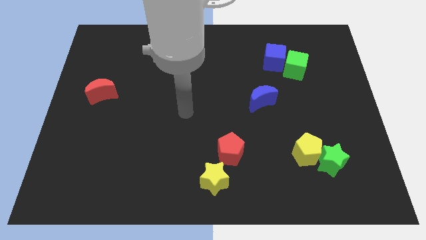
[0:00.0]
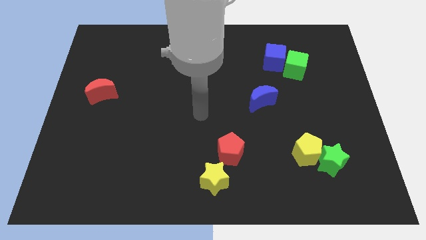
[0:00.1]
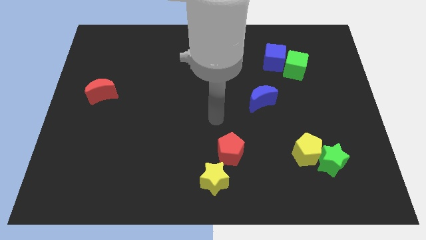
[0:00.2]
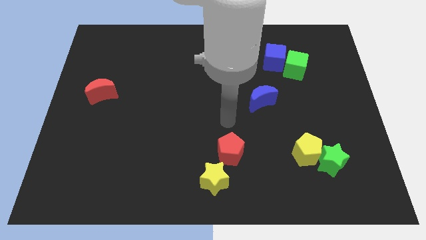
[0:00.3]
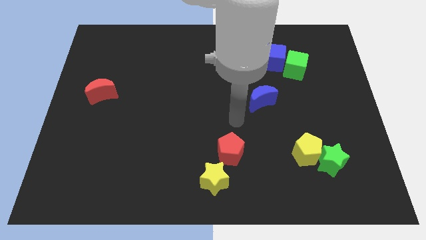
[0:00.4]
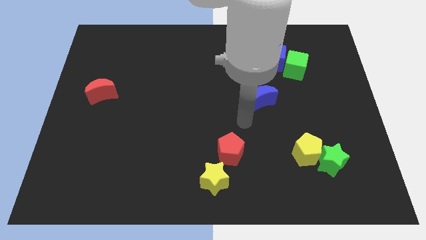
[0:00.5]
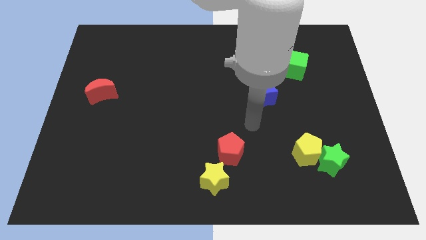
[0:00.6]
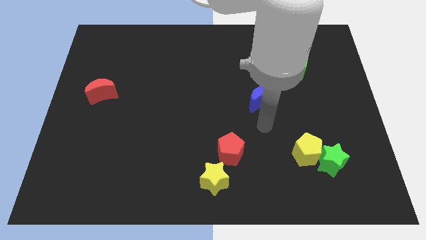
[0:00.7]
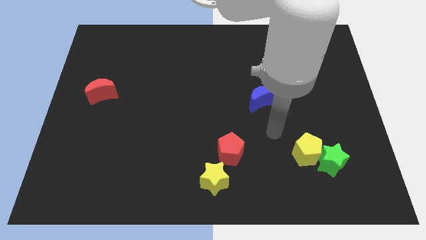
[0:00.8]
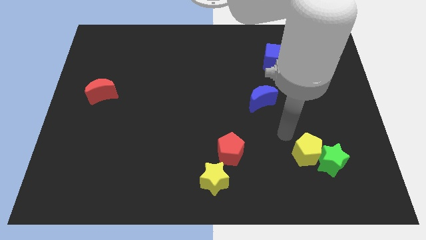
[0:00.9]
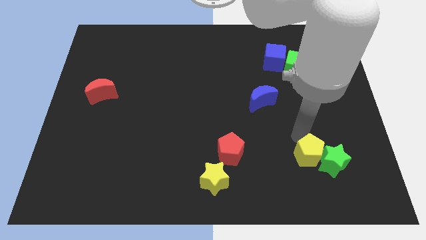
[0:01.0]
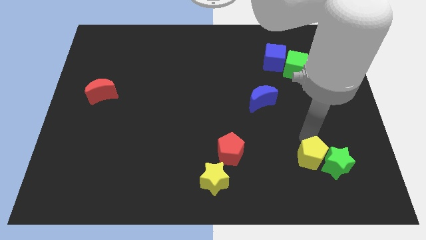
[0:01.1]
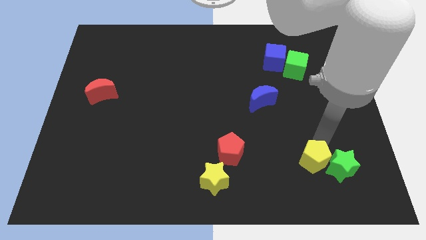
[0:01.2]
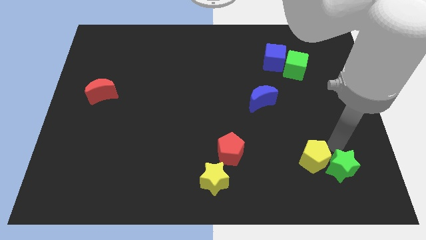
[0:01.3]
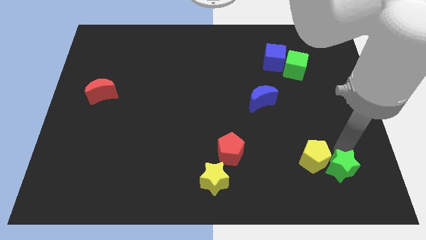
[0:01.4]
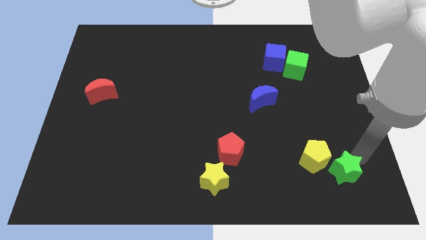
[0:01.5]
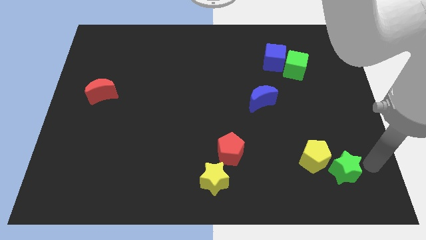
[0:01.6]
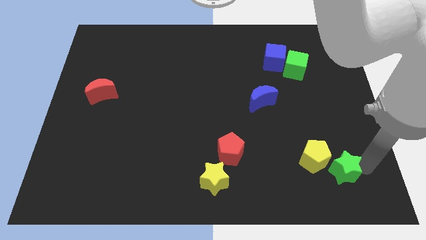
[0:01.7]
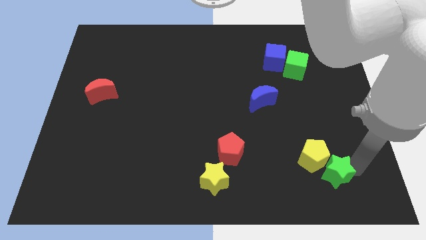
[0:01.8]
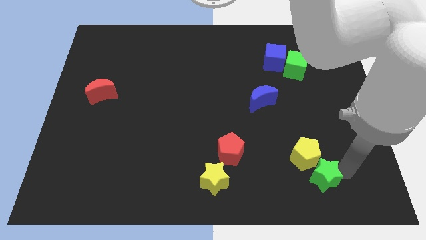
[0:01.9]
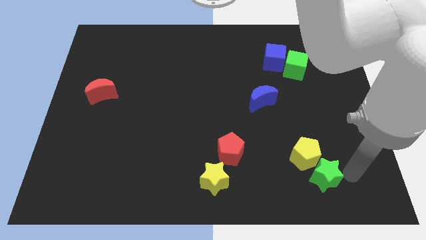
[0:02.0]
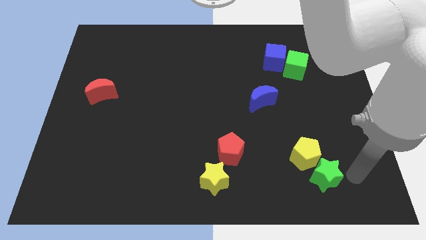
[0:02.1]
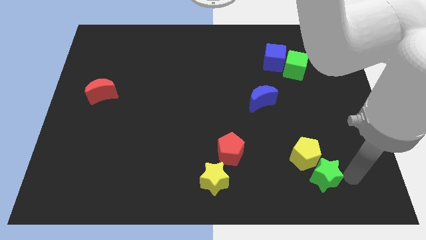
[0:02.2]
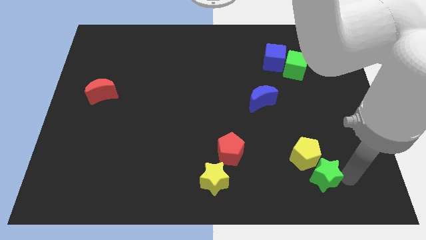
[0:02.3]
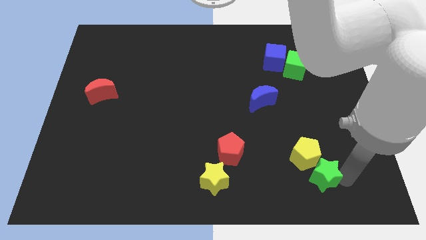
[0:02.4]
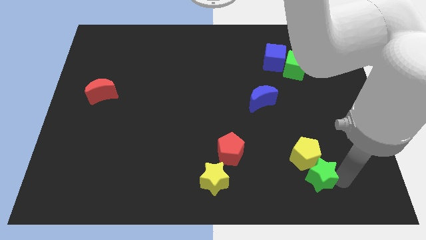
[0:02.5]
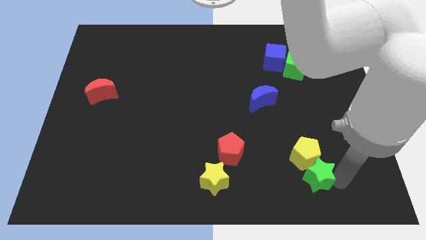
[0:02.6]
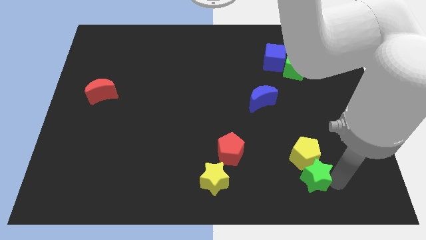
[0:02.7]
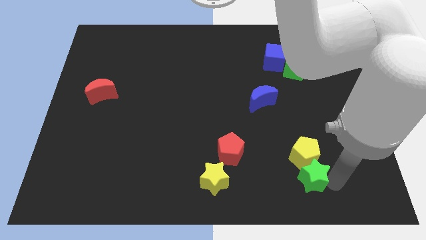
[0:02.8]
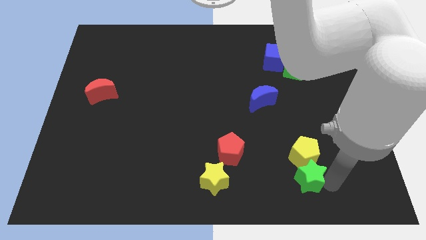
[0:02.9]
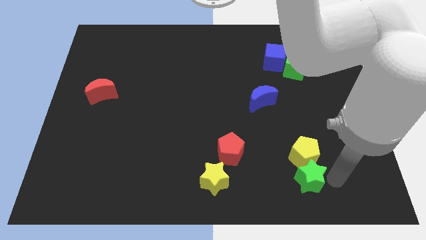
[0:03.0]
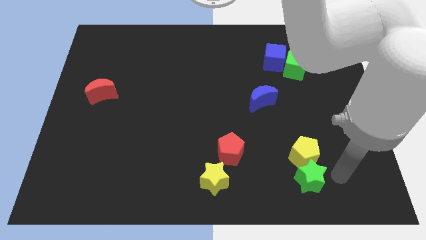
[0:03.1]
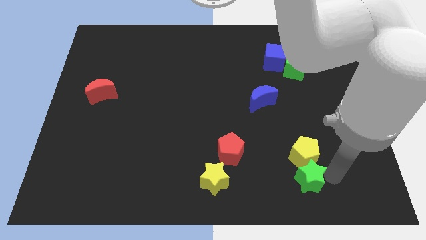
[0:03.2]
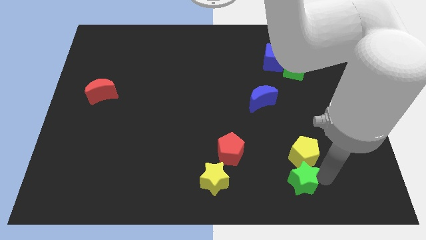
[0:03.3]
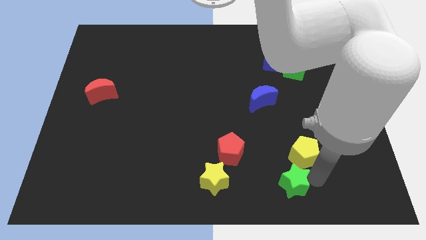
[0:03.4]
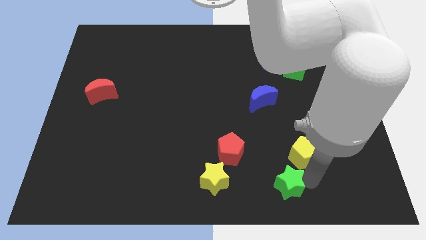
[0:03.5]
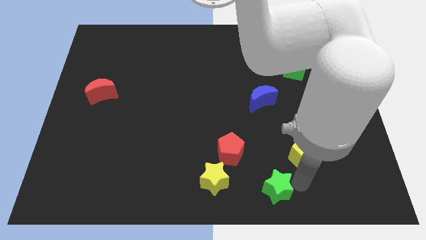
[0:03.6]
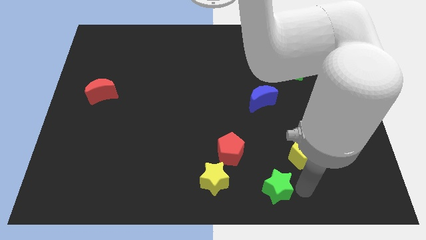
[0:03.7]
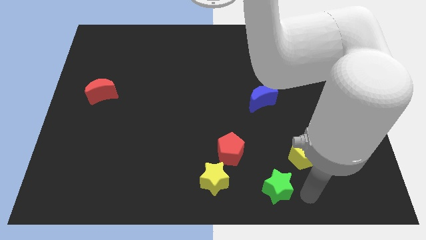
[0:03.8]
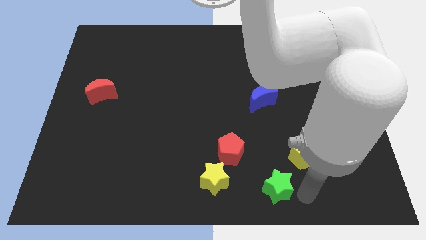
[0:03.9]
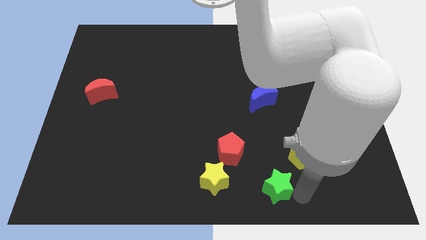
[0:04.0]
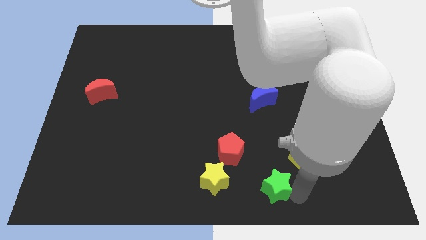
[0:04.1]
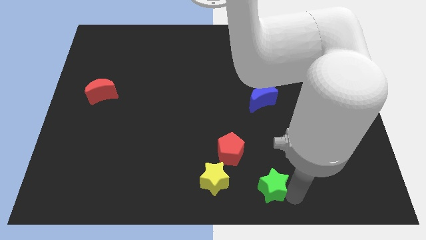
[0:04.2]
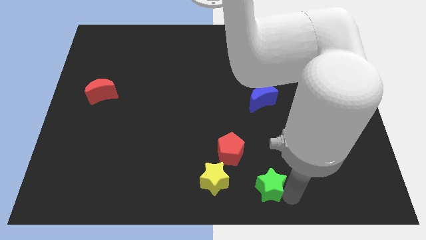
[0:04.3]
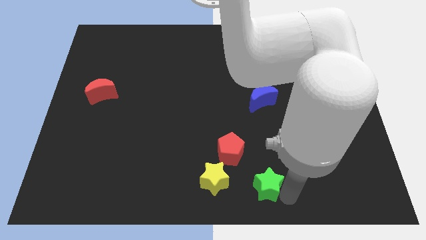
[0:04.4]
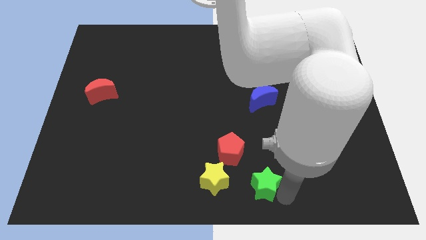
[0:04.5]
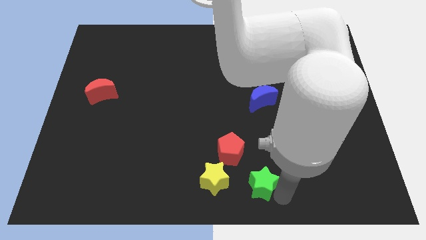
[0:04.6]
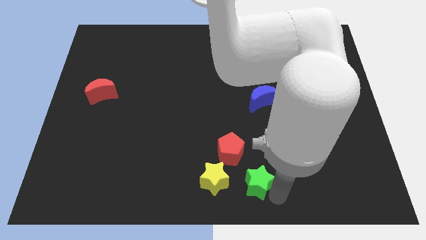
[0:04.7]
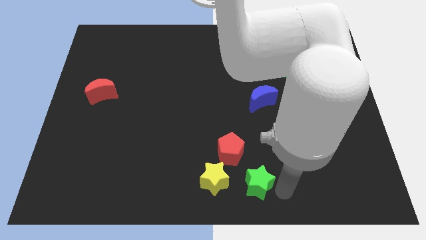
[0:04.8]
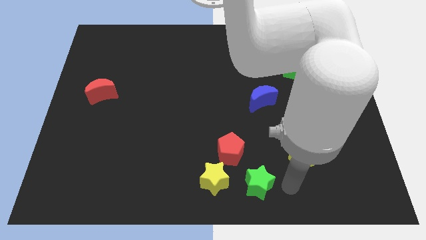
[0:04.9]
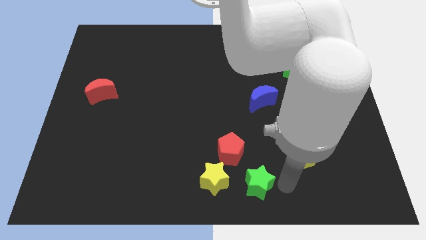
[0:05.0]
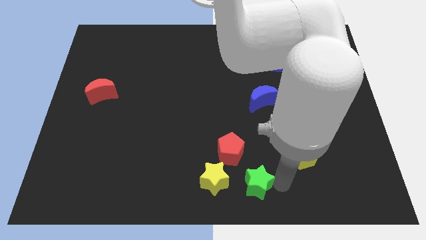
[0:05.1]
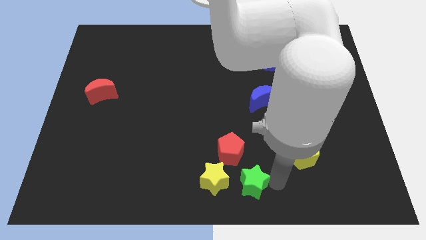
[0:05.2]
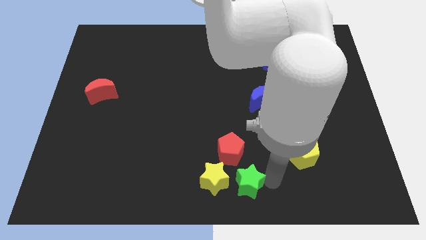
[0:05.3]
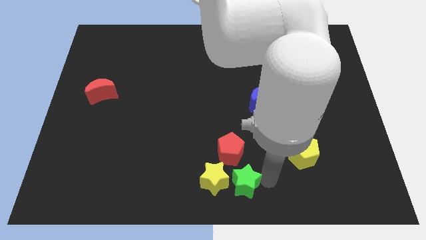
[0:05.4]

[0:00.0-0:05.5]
push the green star close to the yellow star
